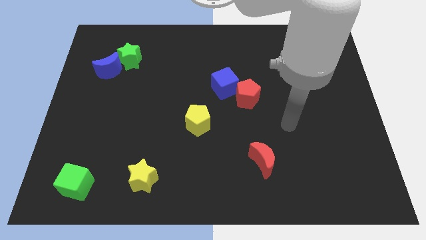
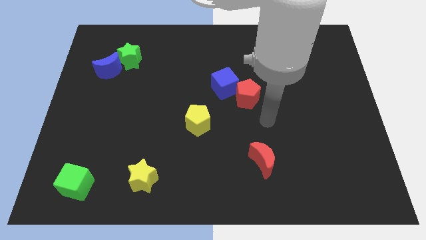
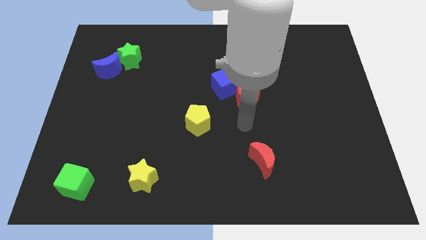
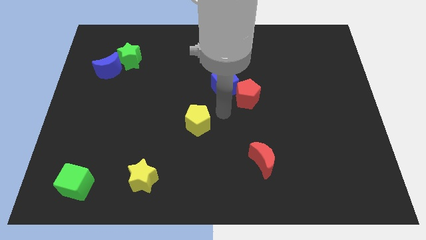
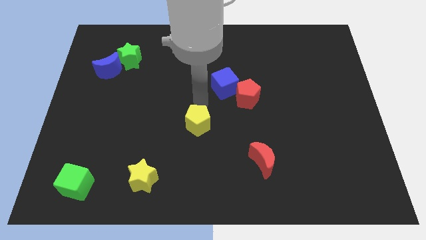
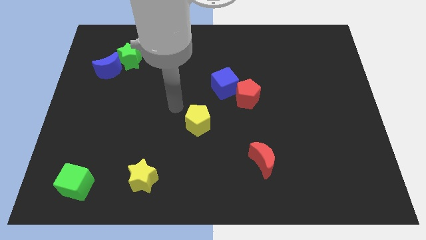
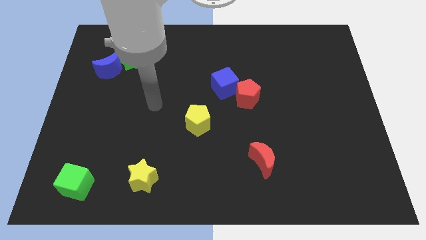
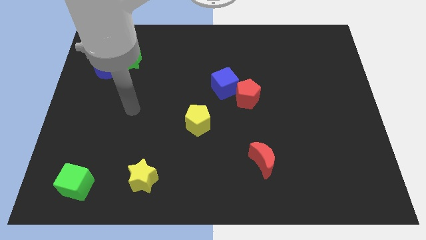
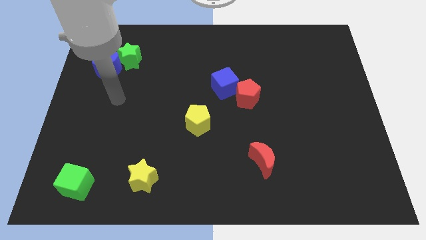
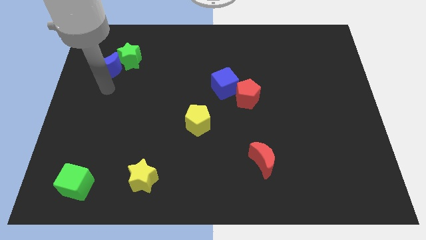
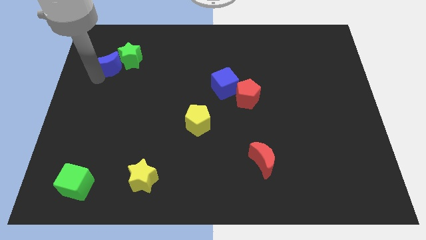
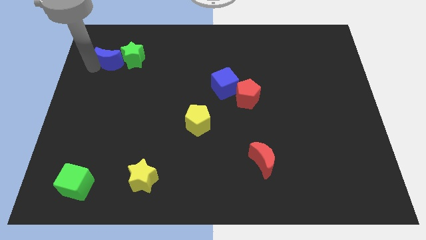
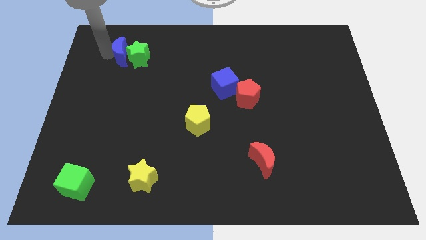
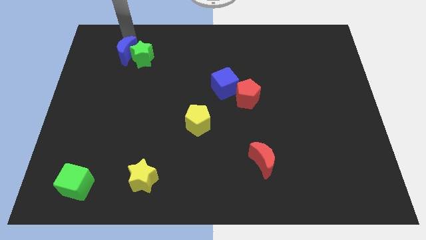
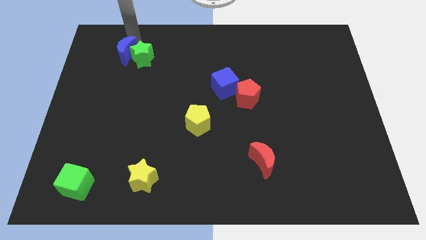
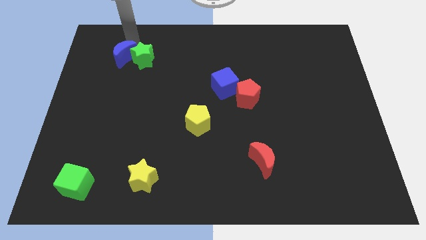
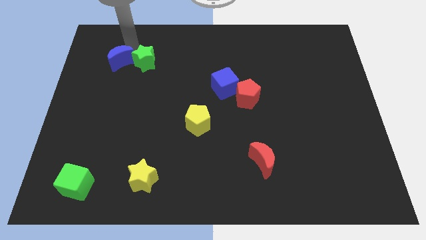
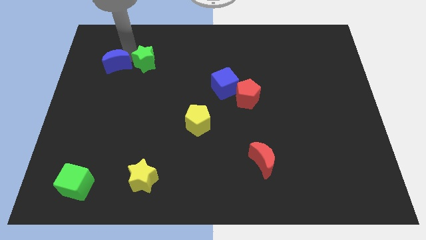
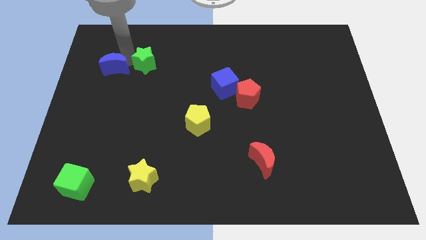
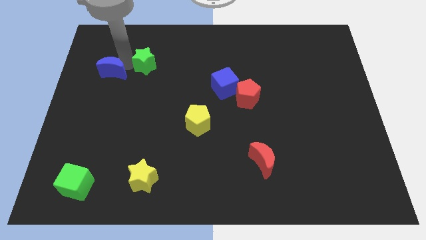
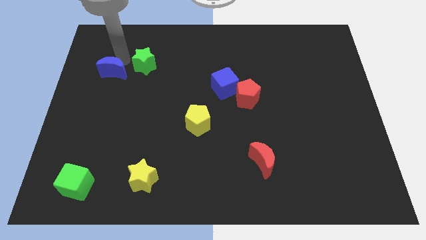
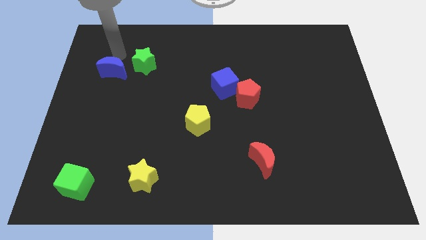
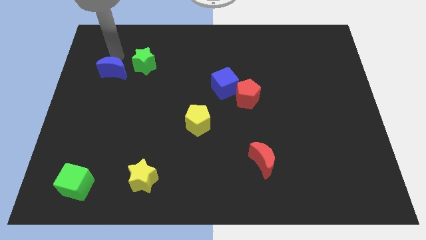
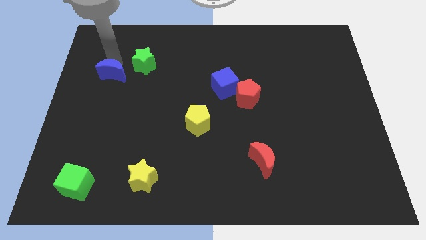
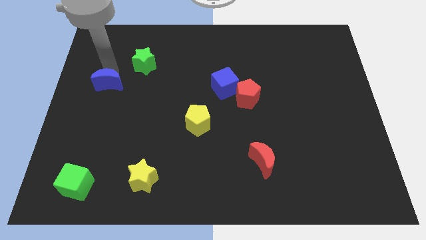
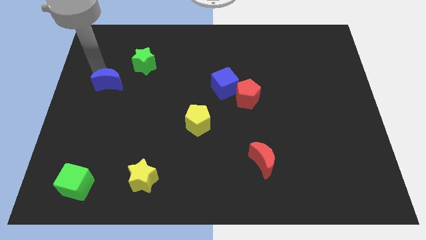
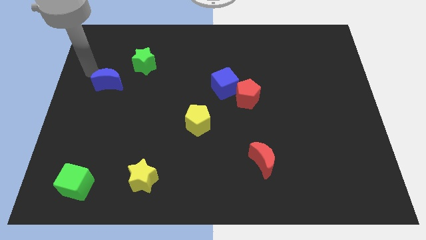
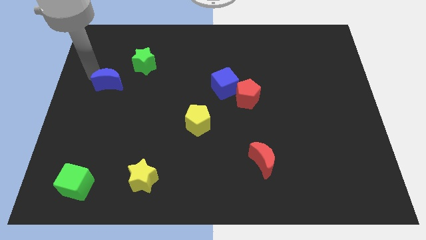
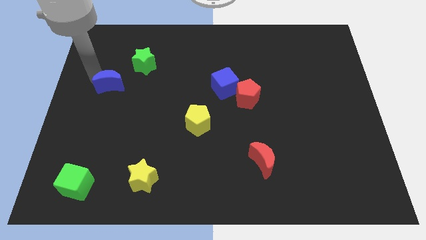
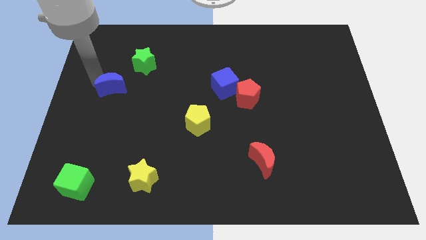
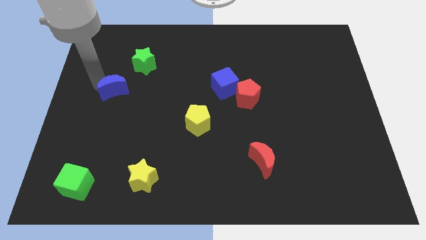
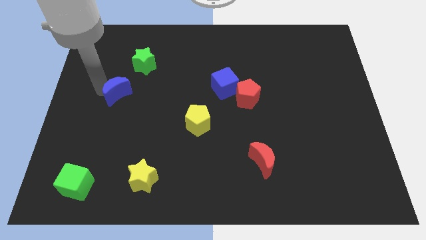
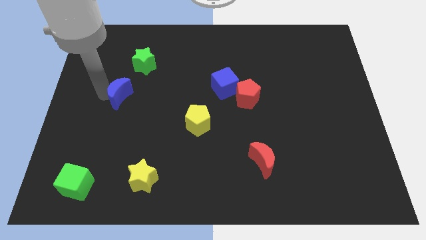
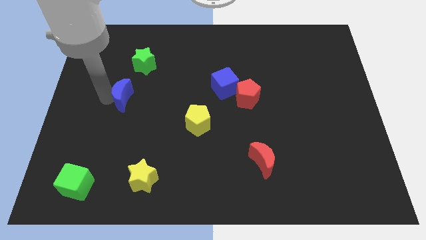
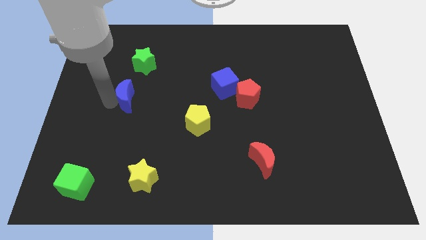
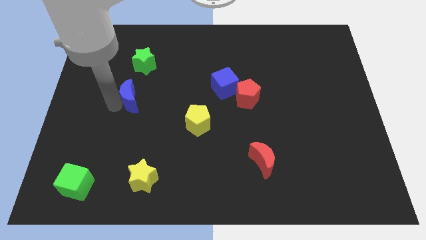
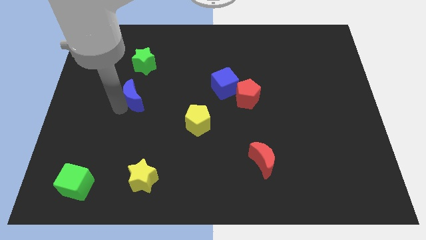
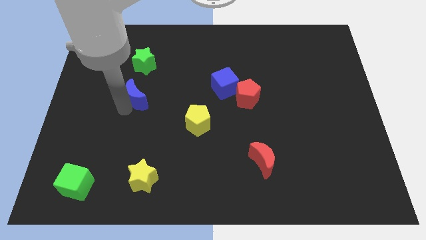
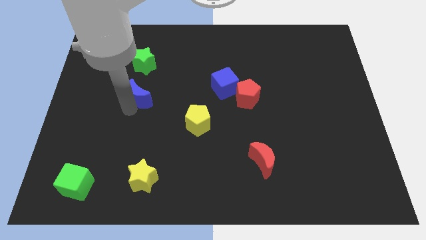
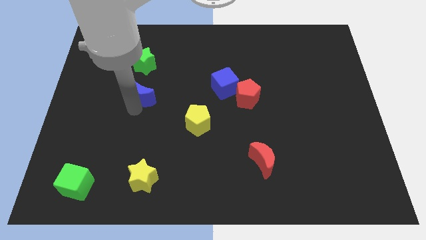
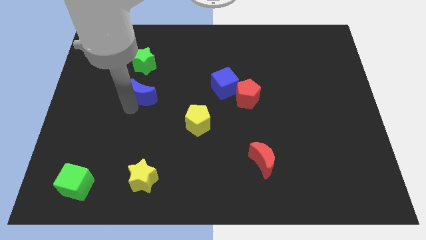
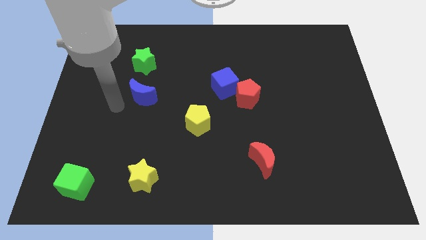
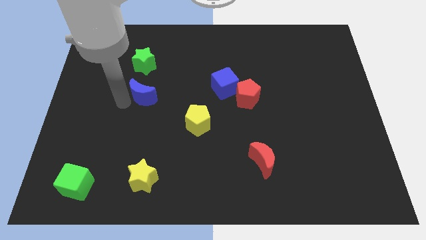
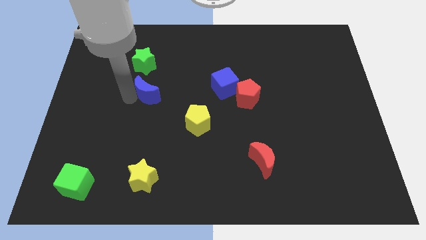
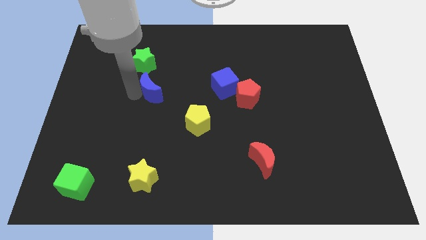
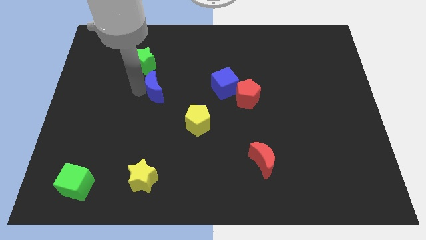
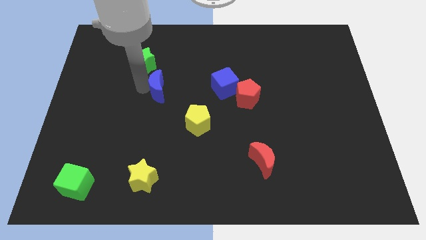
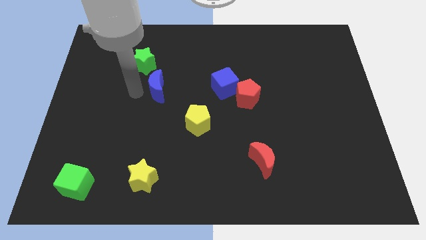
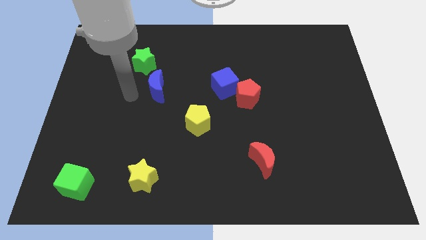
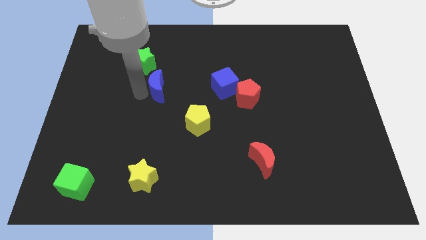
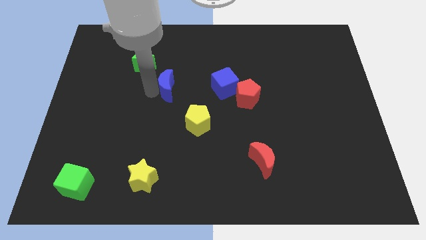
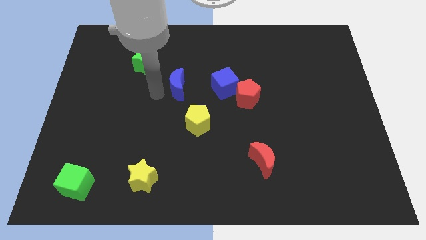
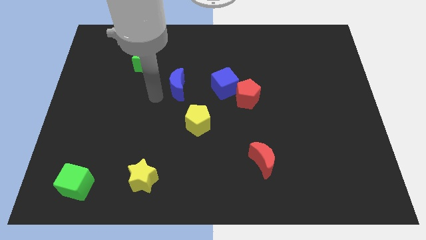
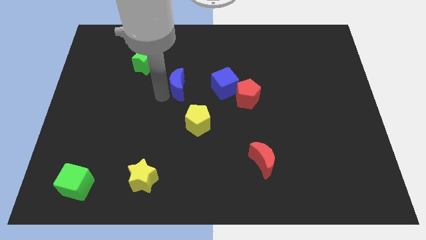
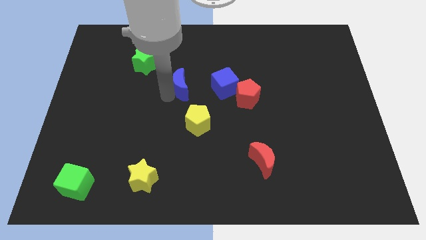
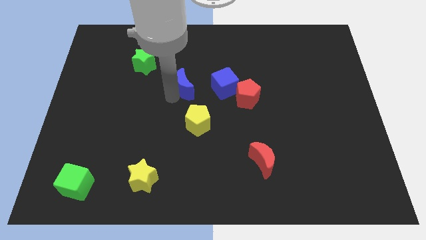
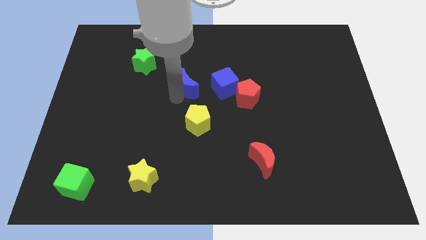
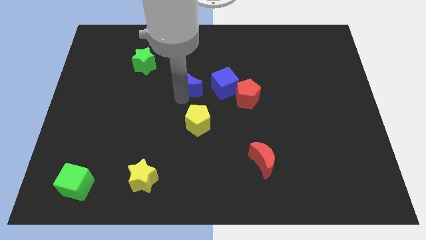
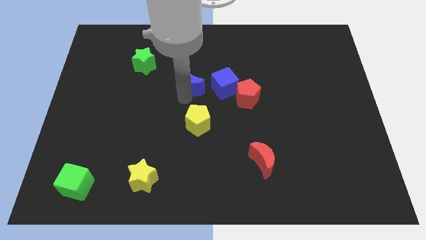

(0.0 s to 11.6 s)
move the blue moon right

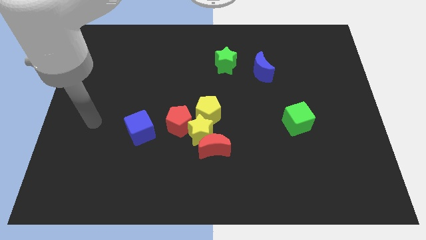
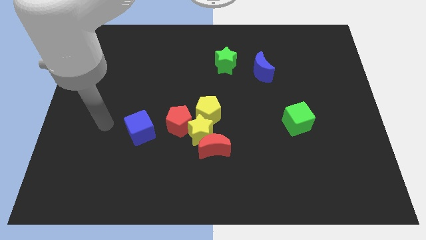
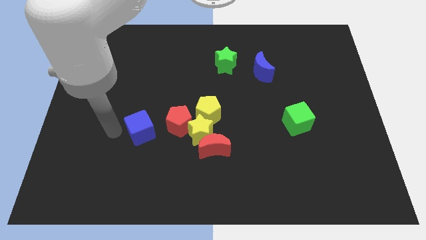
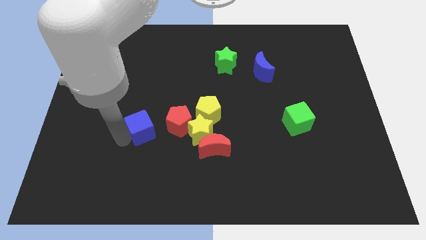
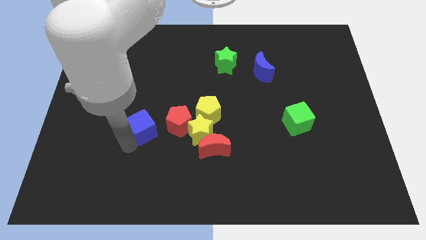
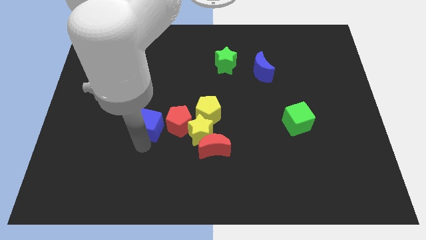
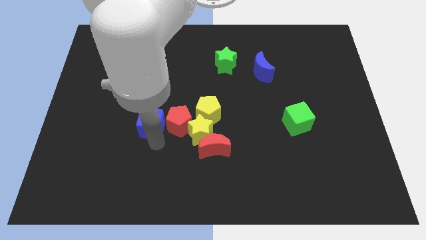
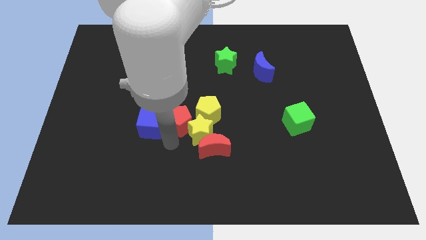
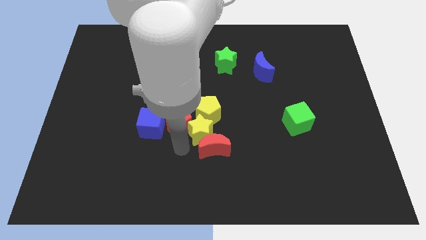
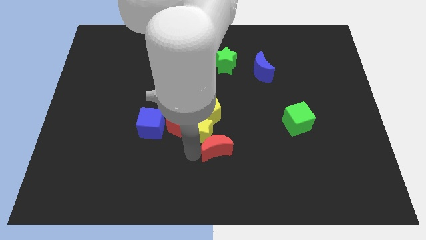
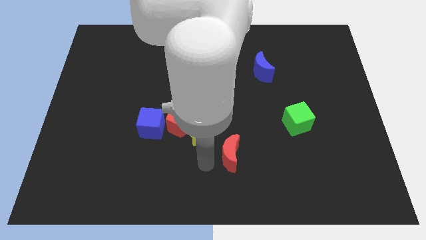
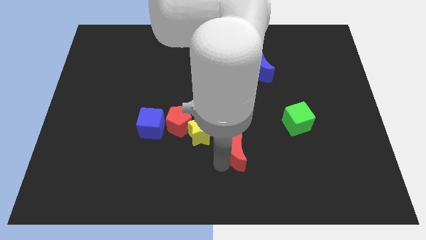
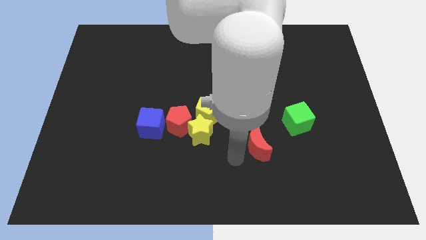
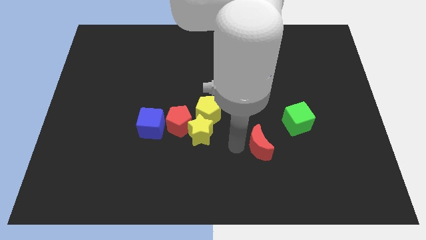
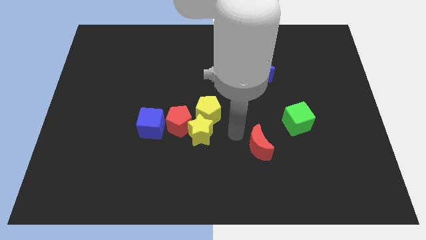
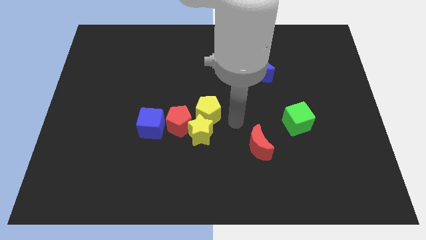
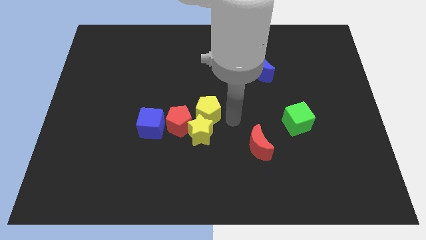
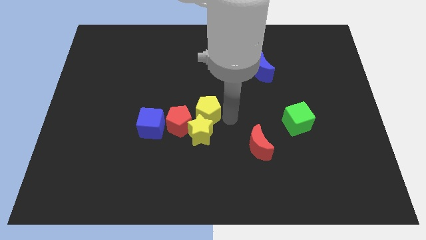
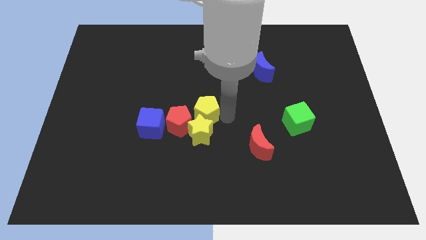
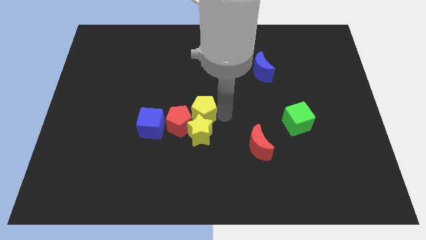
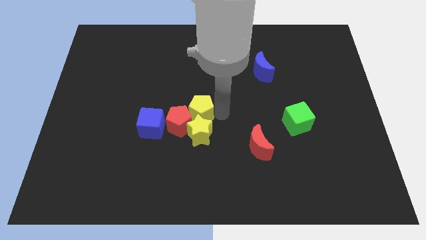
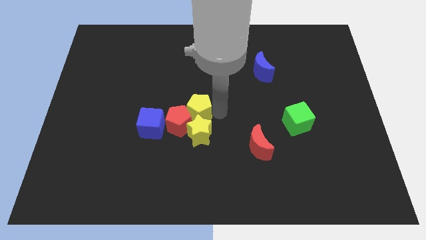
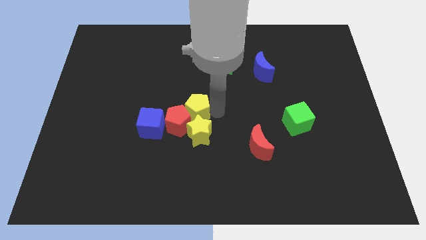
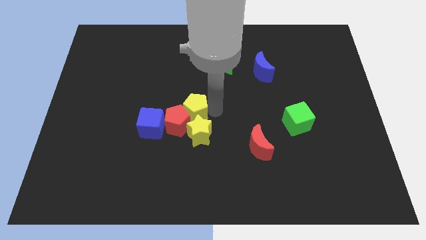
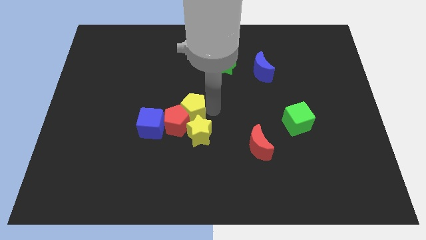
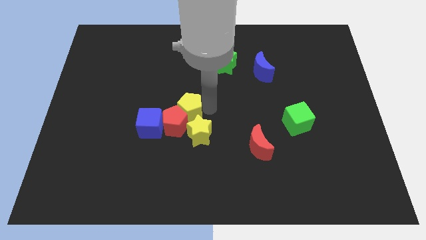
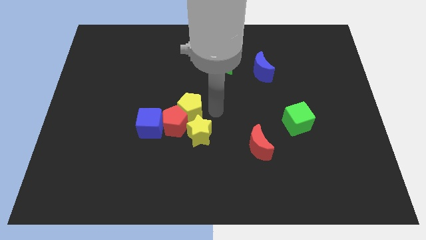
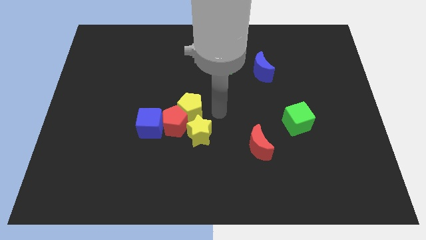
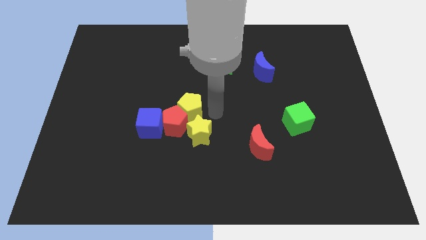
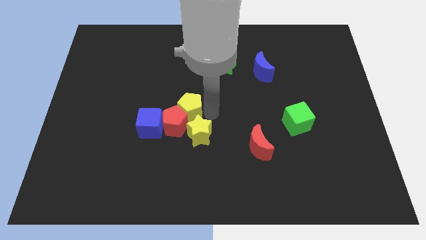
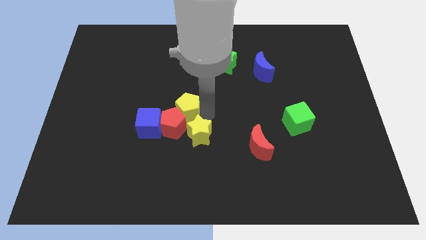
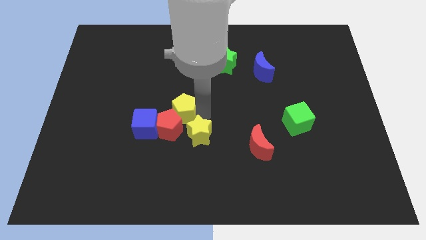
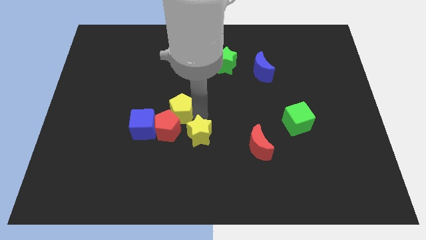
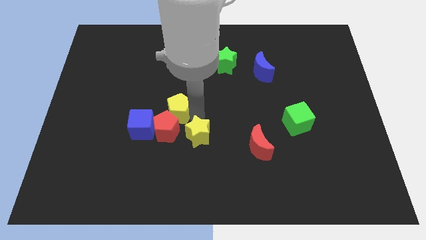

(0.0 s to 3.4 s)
push the yellow pentagon left a little
